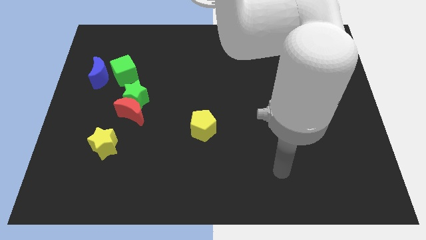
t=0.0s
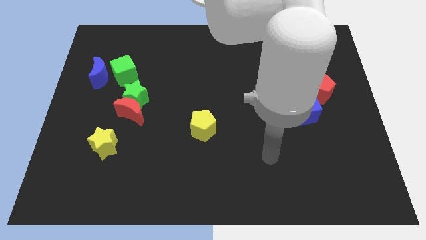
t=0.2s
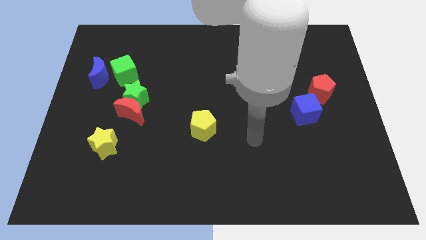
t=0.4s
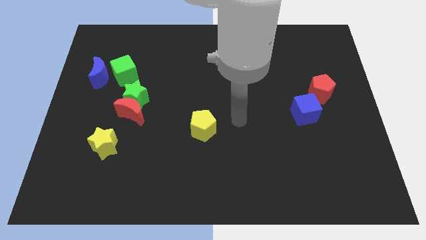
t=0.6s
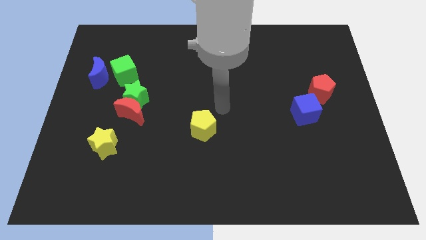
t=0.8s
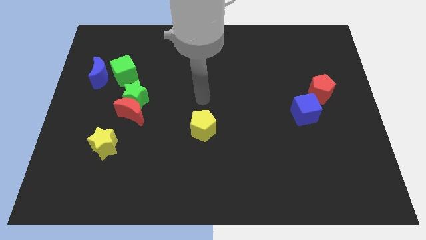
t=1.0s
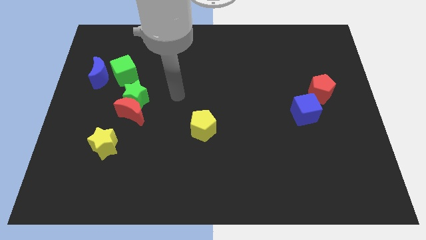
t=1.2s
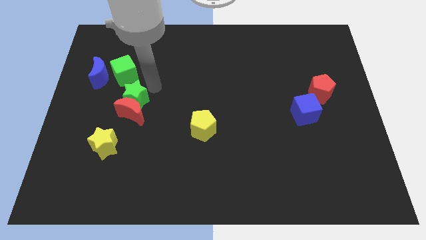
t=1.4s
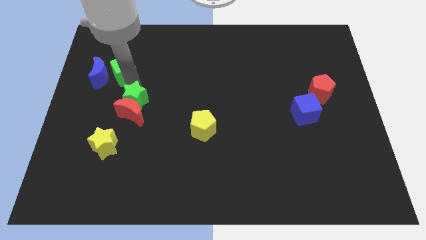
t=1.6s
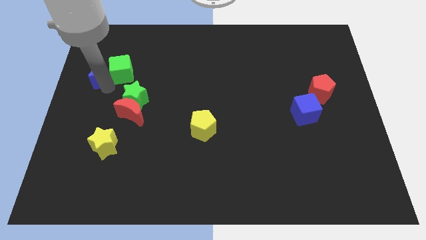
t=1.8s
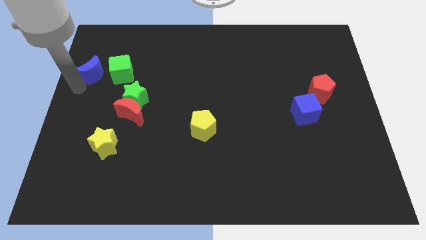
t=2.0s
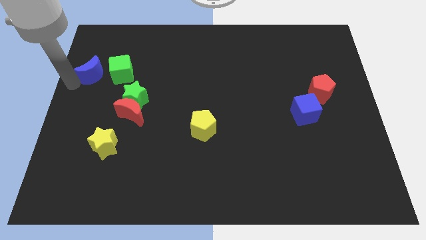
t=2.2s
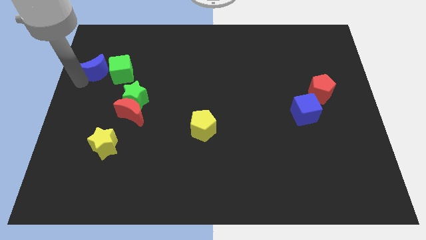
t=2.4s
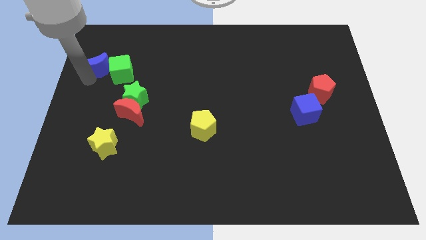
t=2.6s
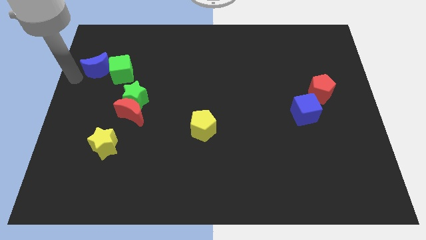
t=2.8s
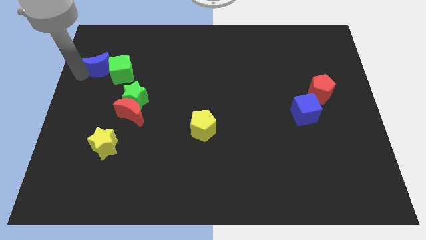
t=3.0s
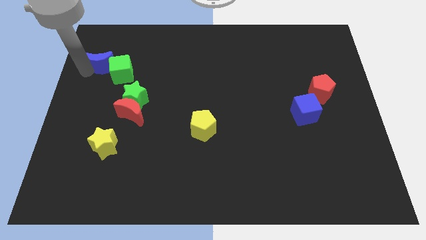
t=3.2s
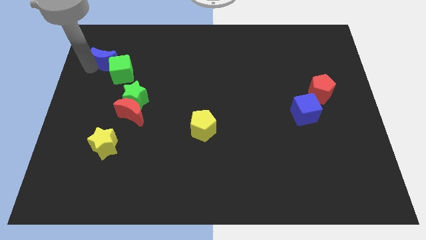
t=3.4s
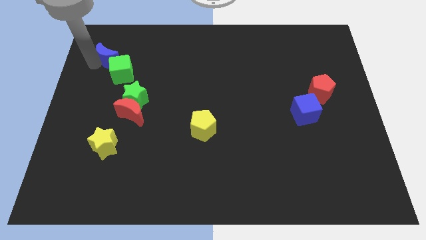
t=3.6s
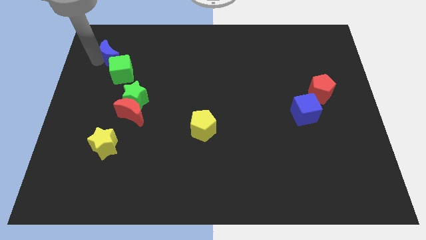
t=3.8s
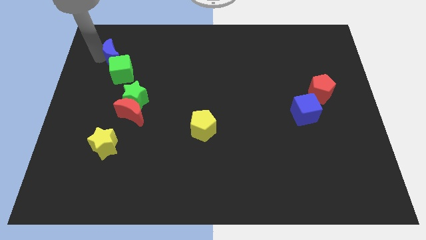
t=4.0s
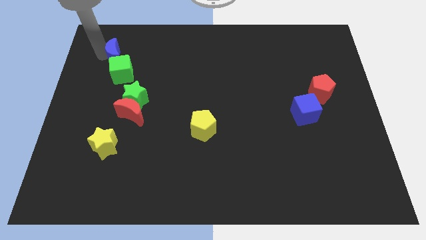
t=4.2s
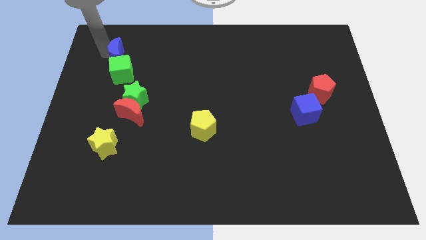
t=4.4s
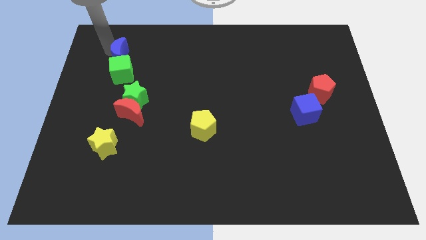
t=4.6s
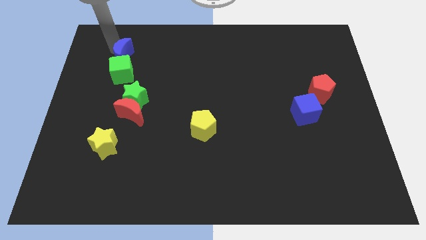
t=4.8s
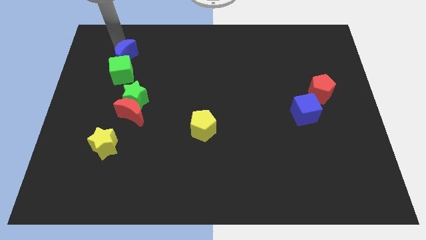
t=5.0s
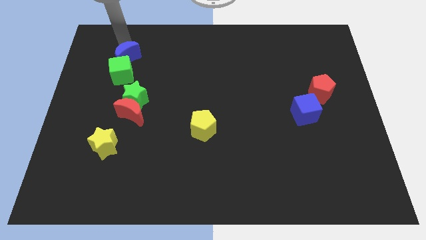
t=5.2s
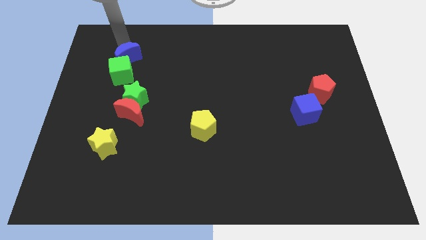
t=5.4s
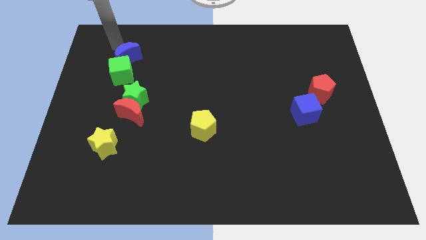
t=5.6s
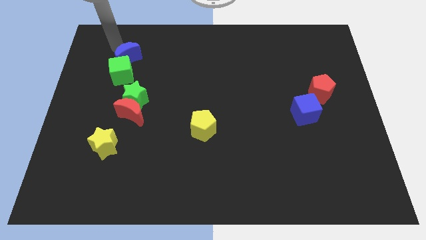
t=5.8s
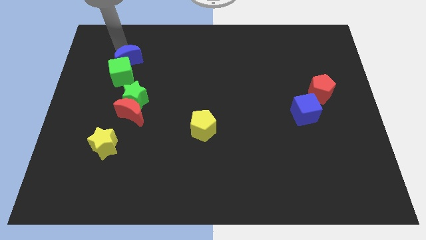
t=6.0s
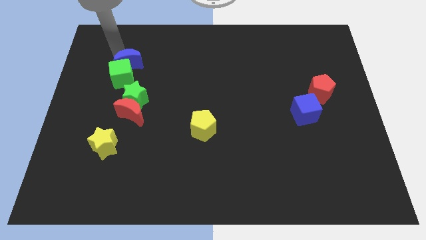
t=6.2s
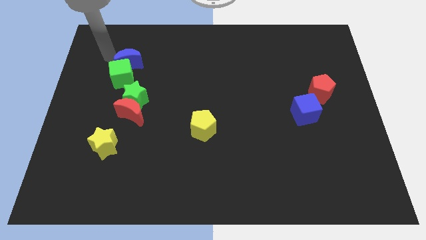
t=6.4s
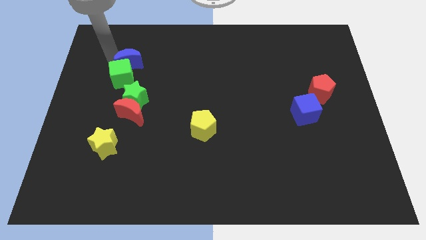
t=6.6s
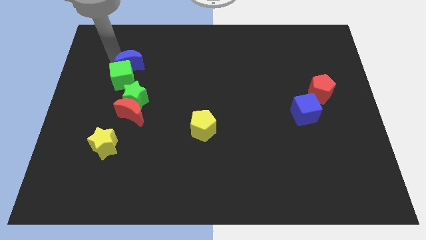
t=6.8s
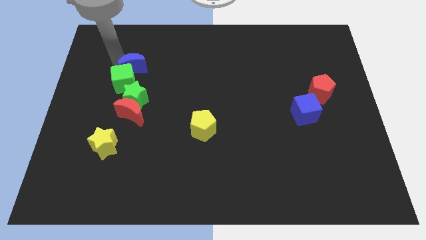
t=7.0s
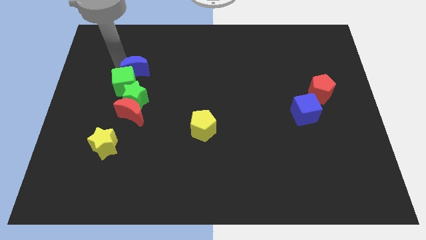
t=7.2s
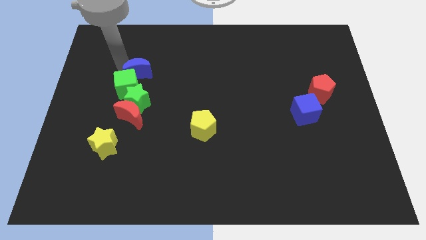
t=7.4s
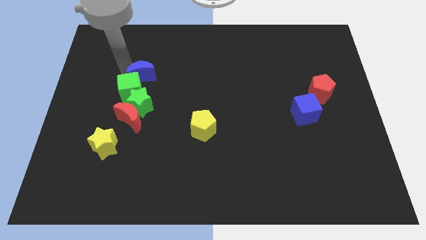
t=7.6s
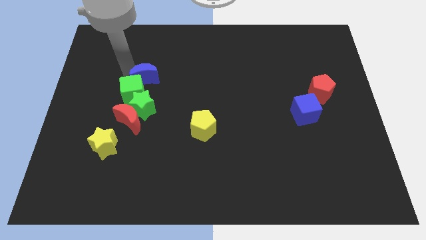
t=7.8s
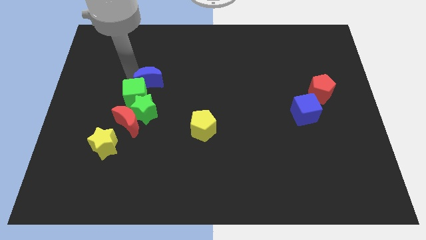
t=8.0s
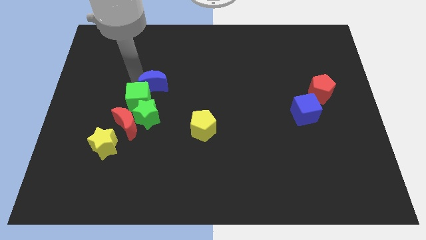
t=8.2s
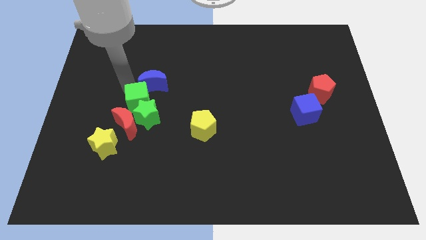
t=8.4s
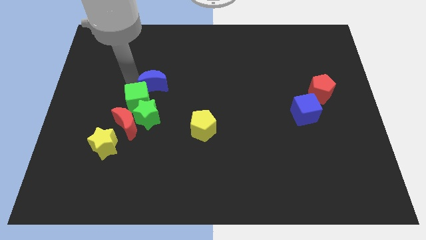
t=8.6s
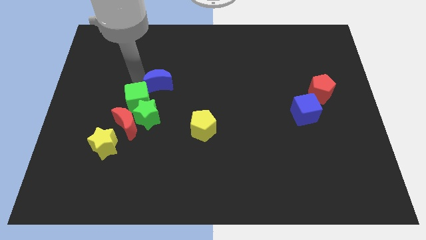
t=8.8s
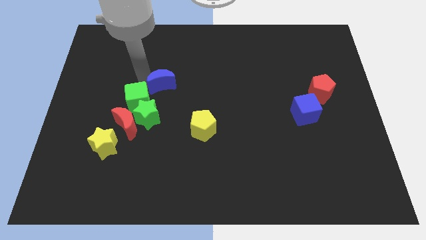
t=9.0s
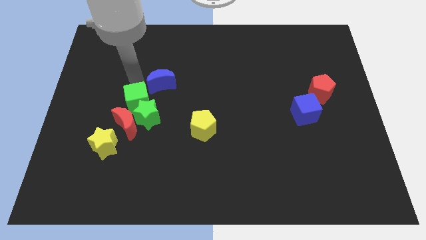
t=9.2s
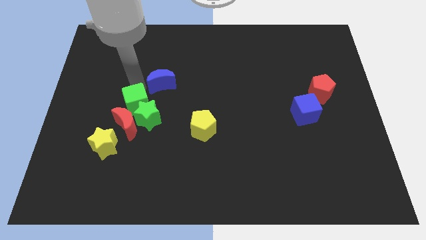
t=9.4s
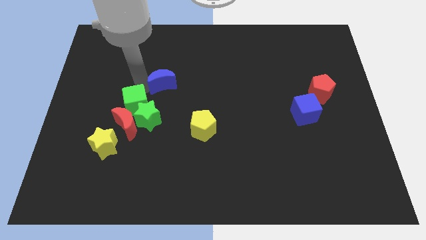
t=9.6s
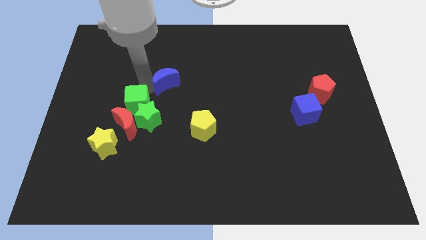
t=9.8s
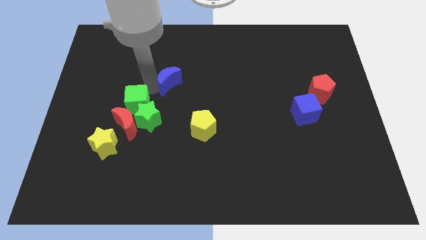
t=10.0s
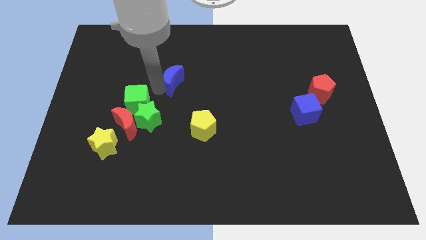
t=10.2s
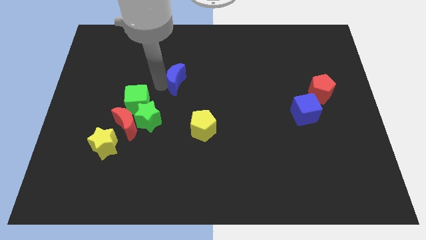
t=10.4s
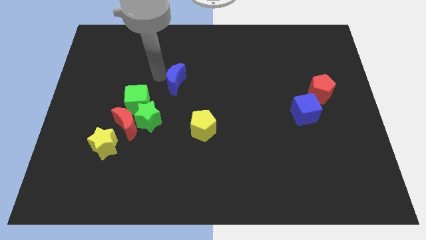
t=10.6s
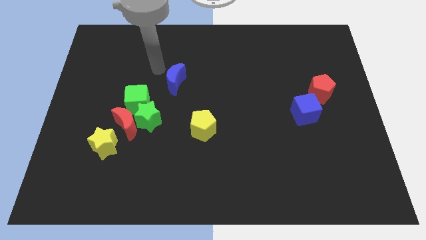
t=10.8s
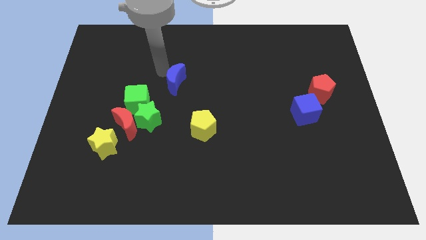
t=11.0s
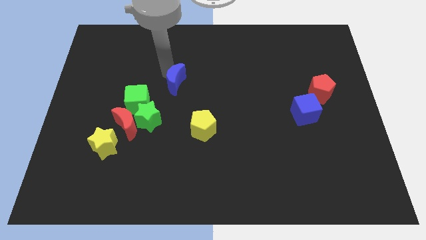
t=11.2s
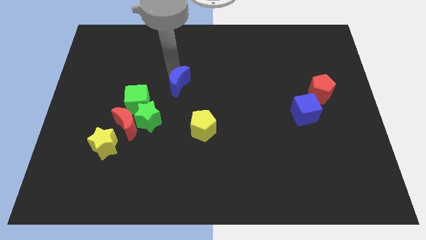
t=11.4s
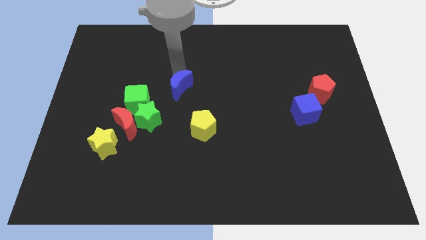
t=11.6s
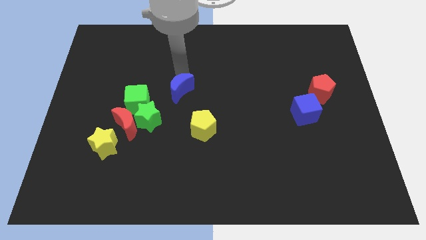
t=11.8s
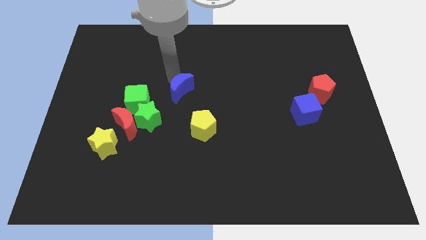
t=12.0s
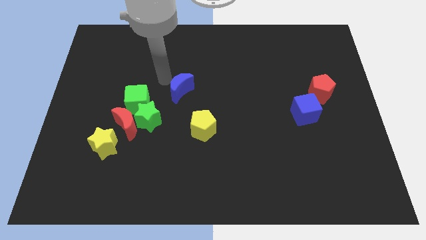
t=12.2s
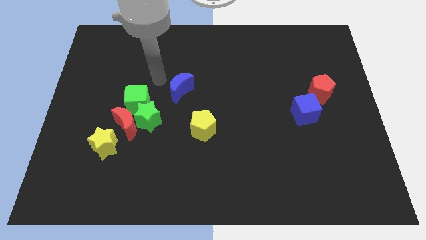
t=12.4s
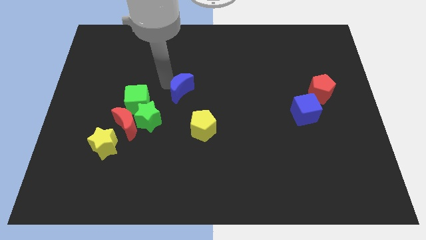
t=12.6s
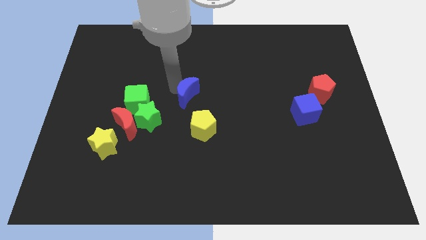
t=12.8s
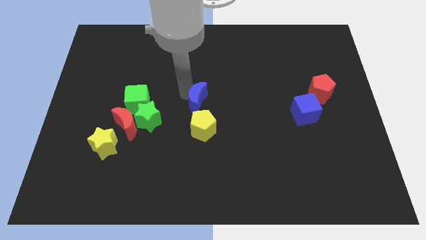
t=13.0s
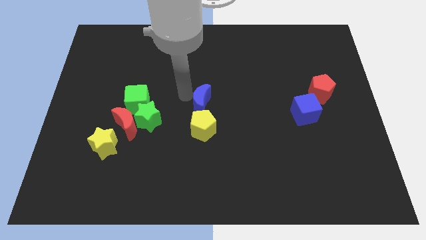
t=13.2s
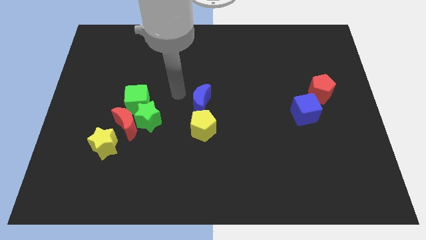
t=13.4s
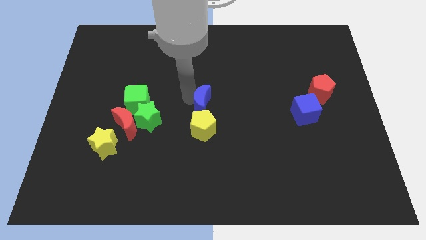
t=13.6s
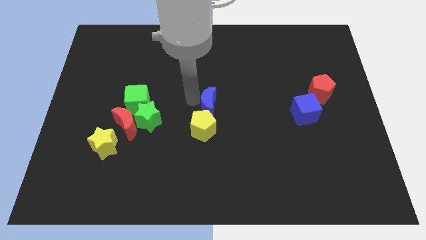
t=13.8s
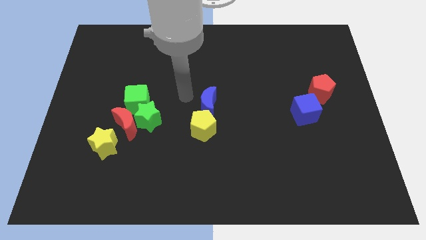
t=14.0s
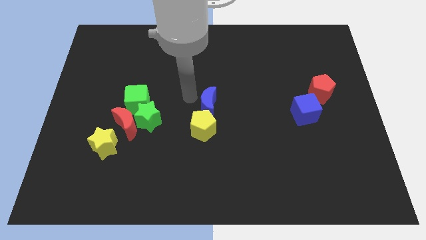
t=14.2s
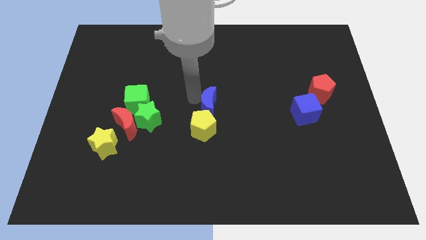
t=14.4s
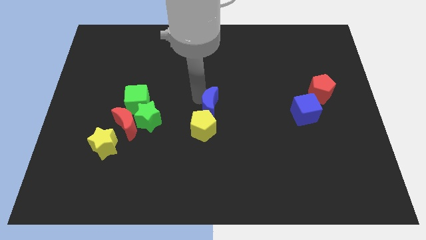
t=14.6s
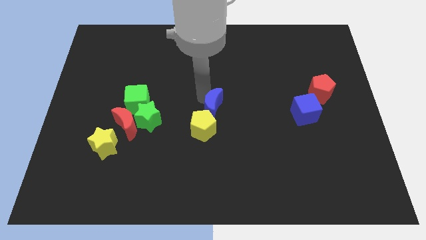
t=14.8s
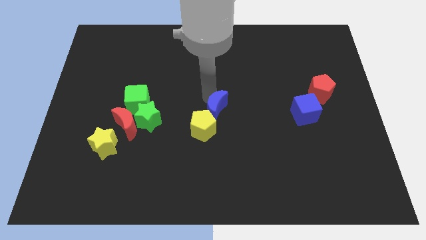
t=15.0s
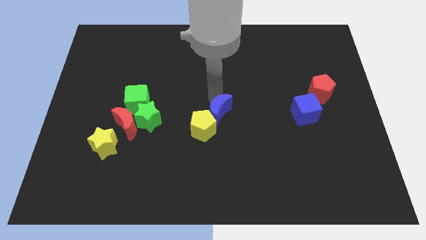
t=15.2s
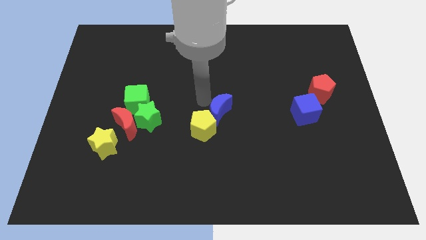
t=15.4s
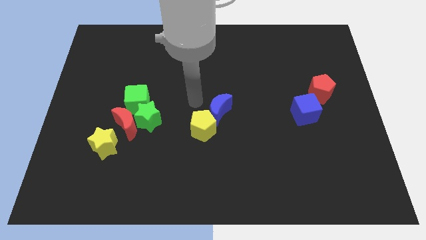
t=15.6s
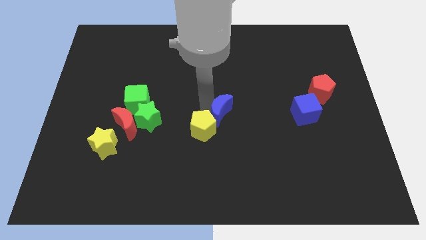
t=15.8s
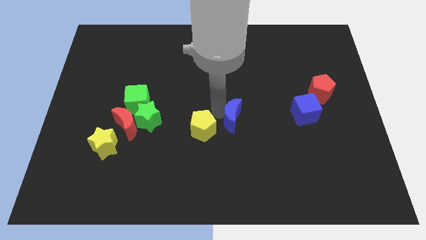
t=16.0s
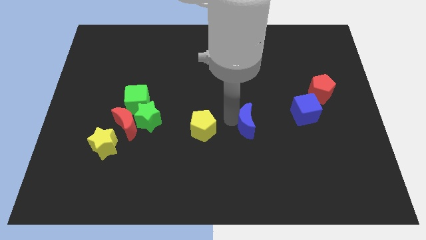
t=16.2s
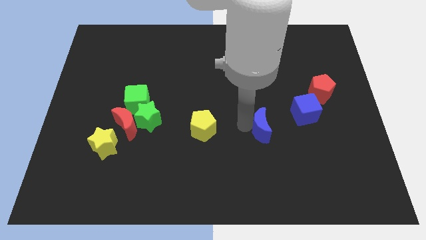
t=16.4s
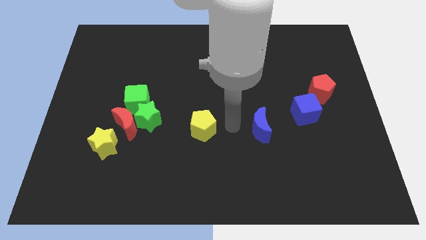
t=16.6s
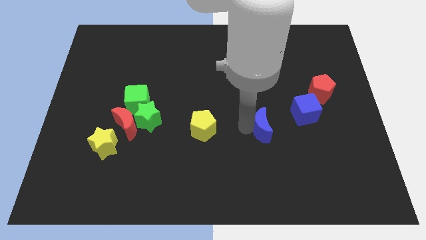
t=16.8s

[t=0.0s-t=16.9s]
push the blue moon to the bottom left side of the blue cube
